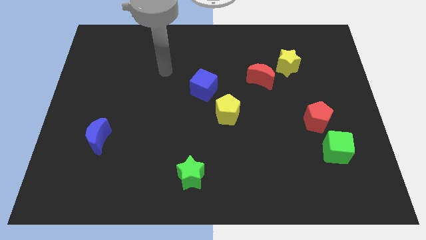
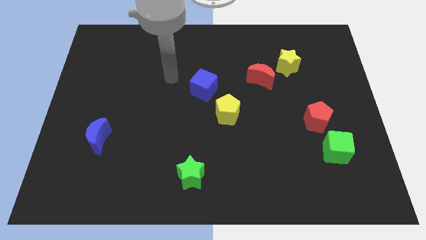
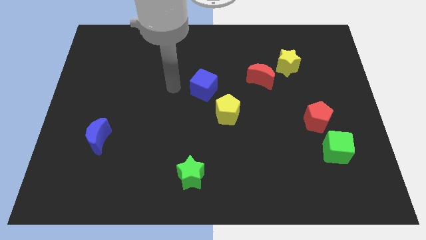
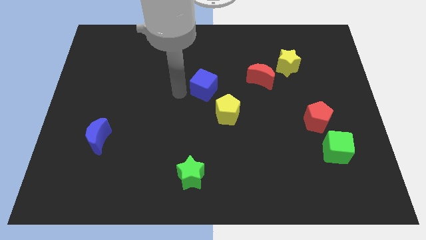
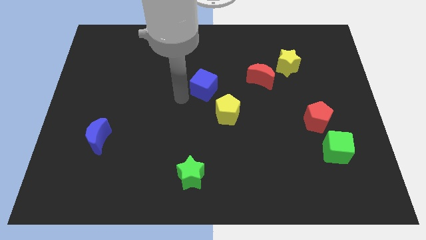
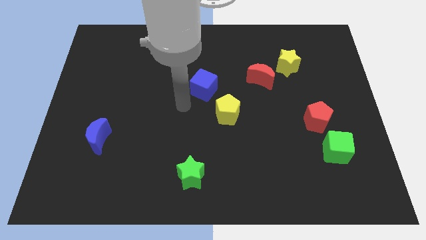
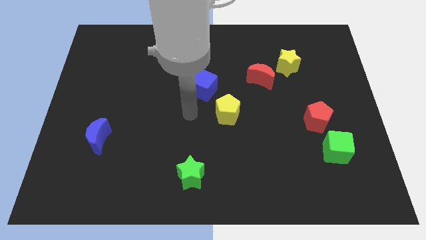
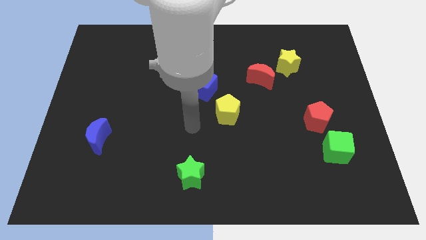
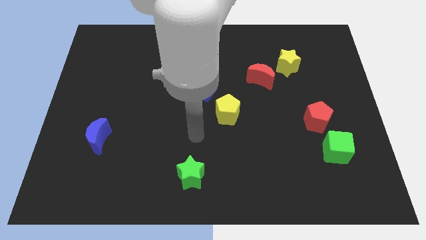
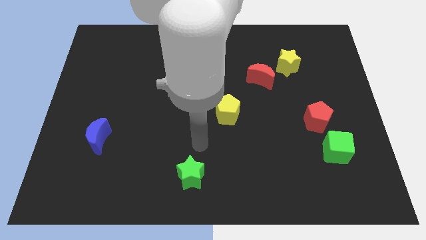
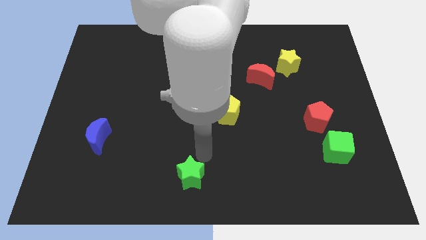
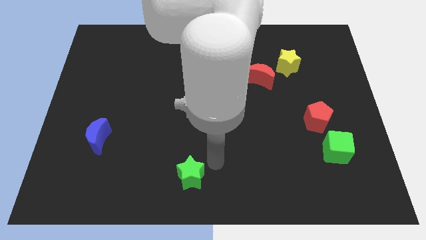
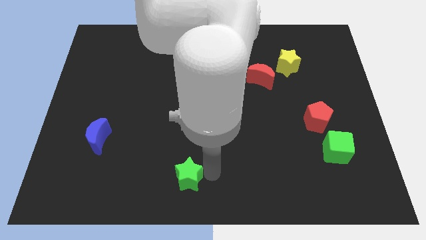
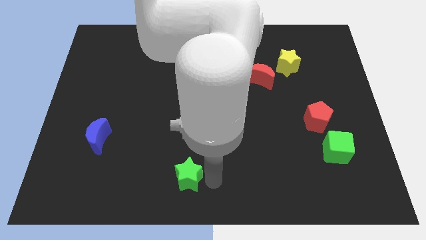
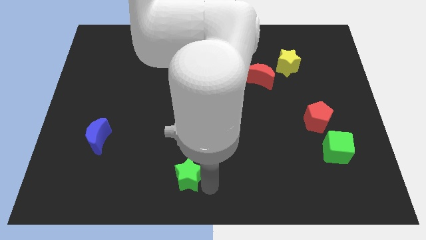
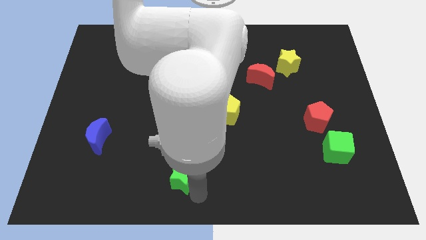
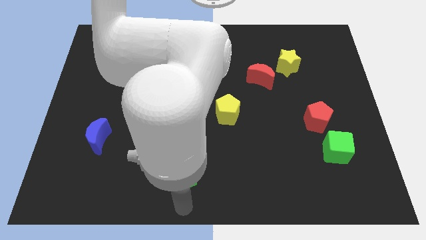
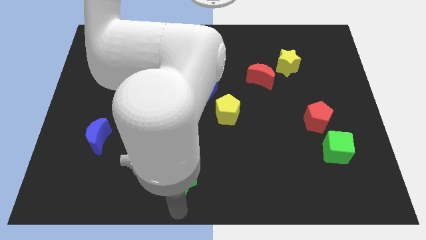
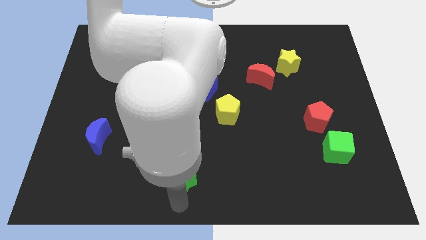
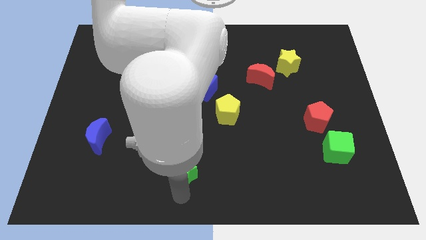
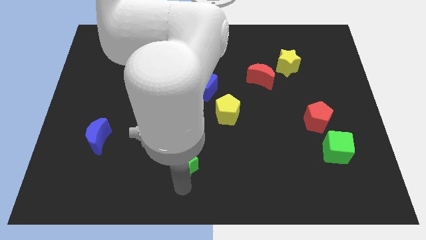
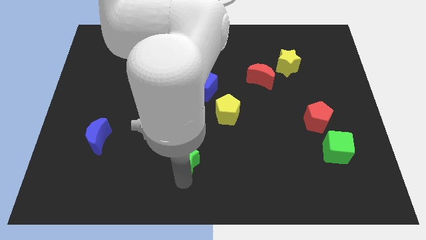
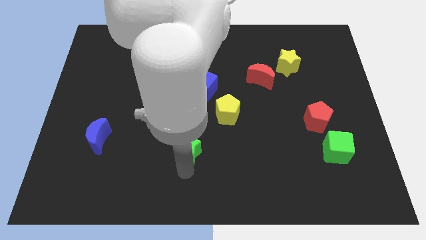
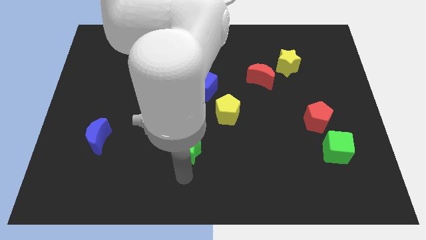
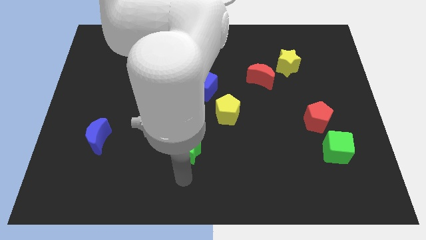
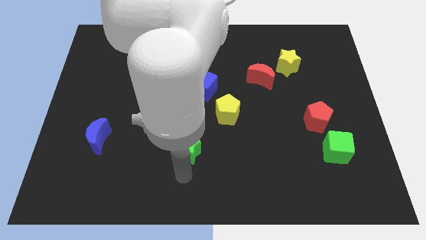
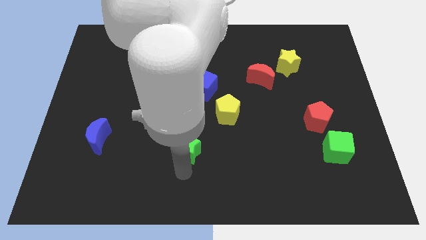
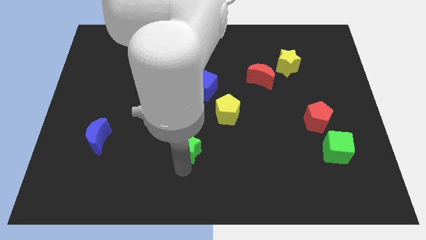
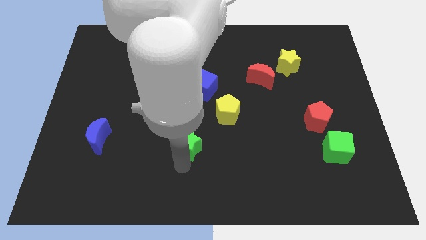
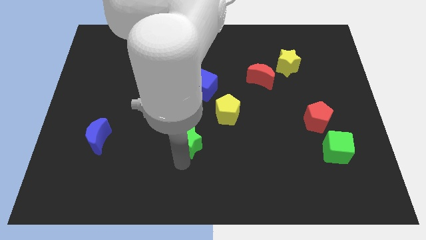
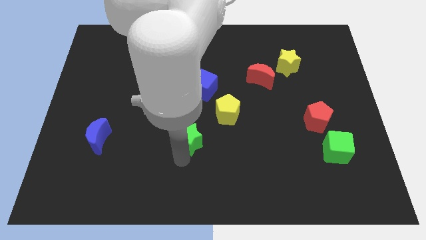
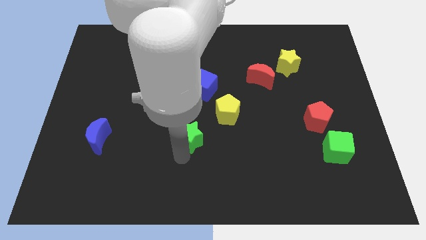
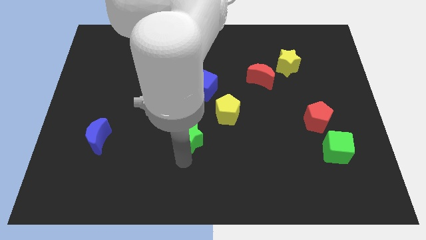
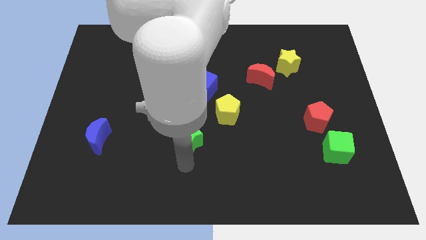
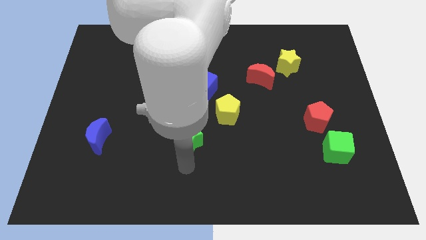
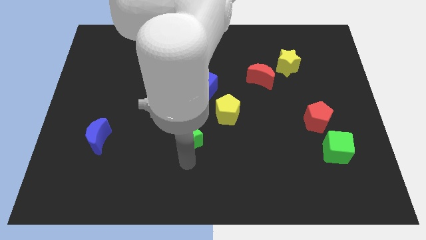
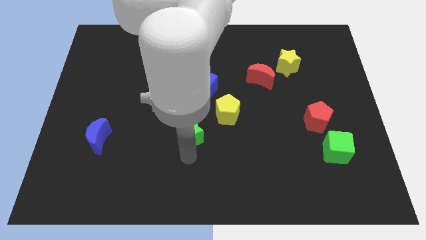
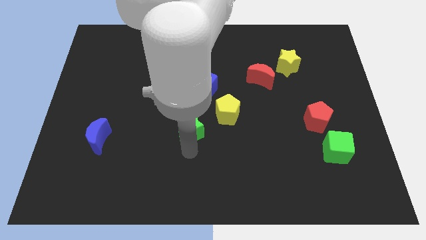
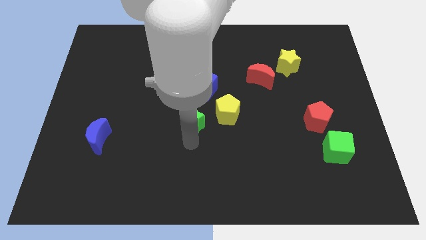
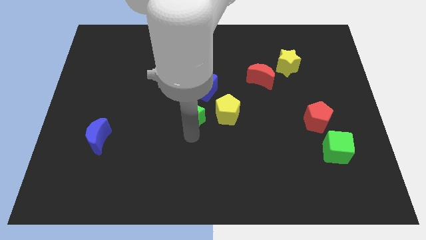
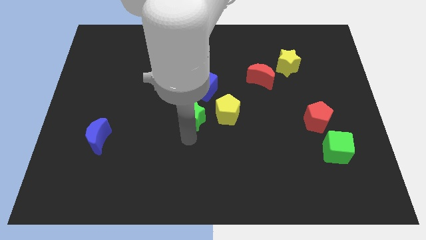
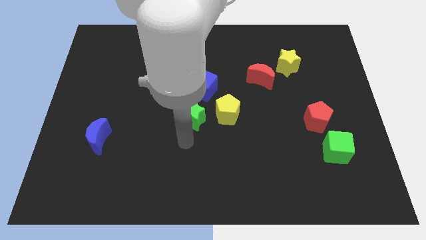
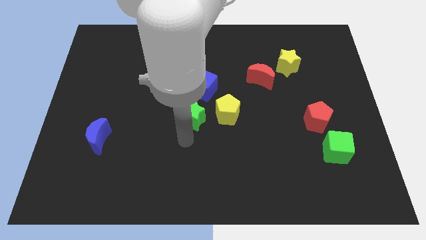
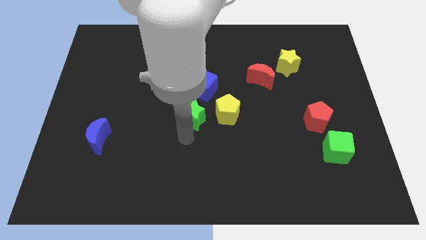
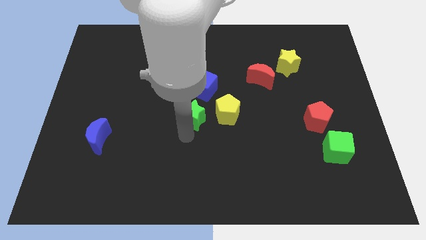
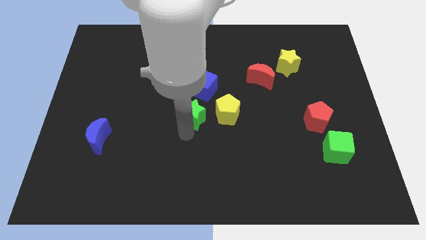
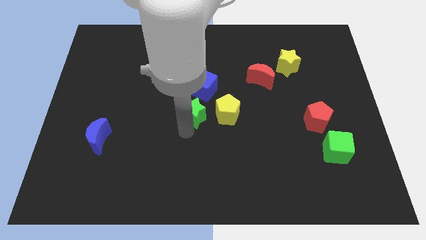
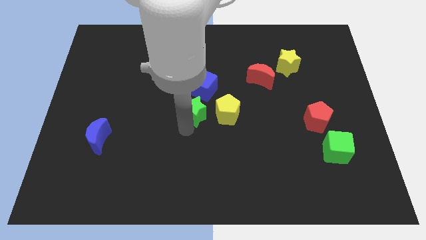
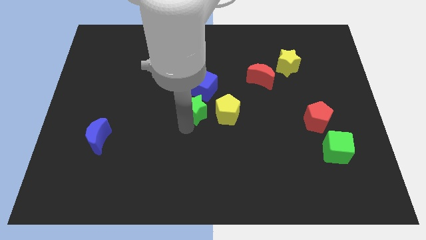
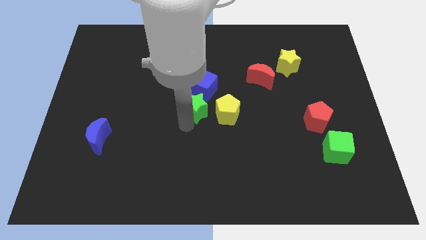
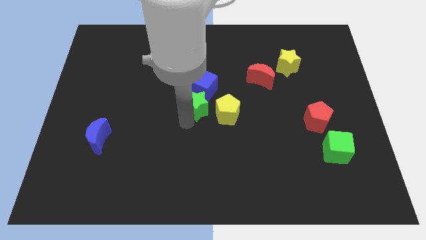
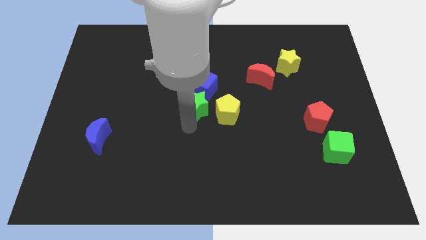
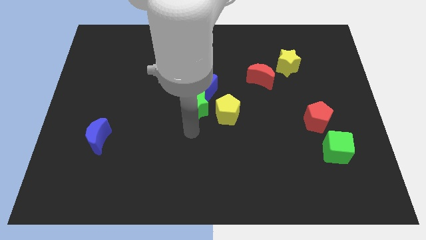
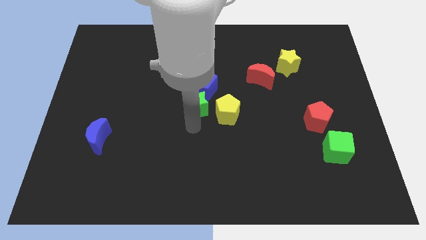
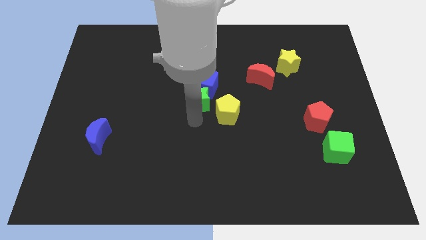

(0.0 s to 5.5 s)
push the green star to the blue cube

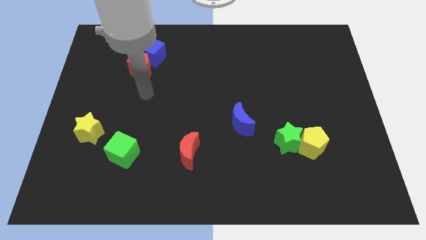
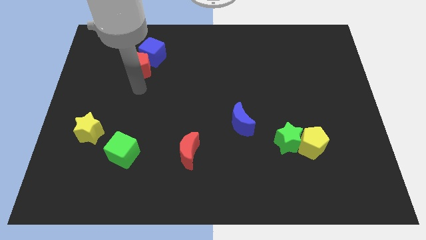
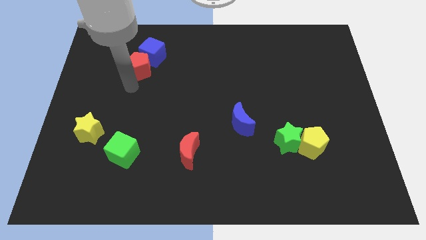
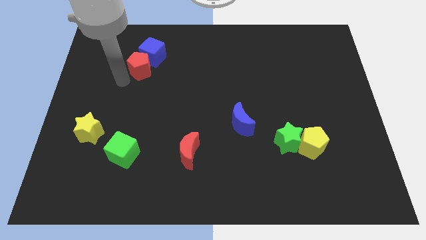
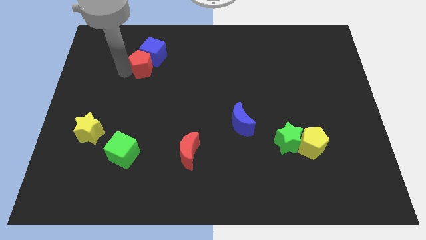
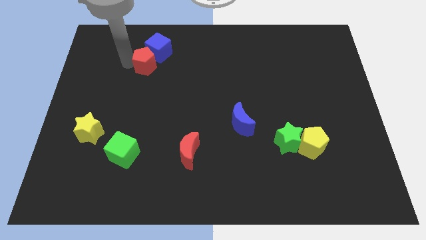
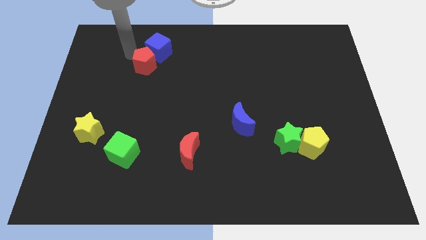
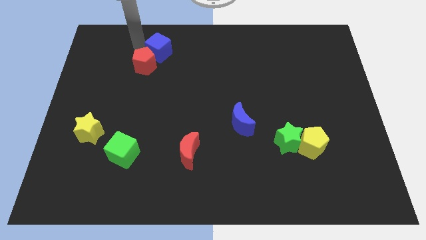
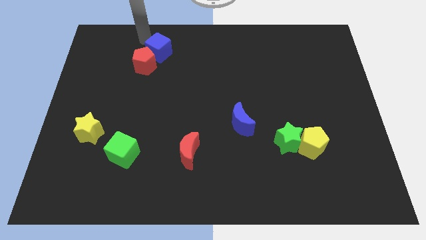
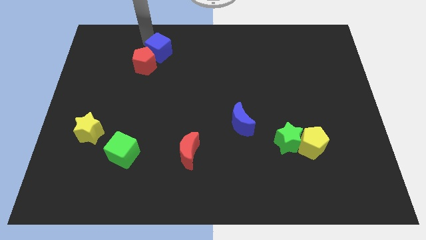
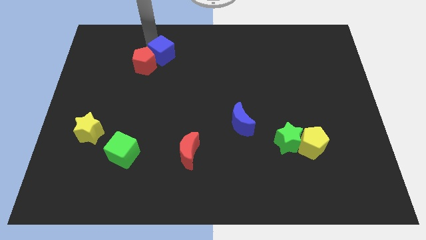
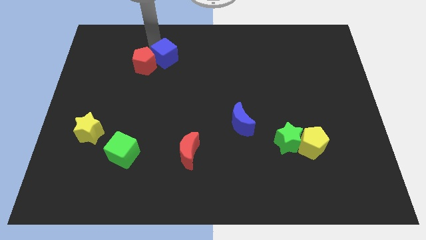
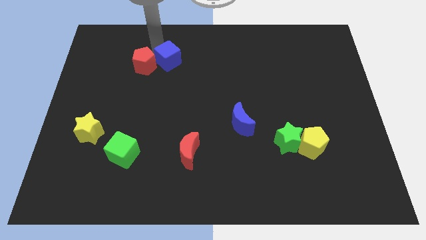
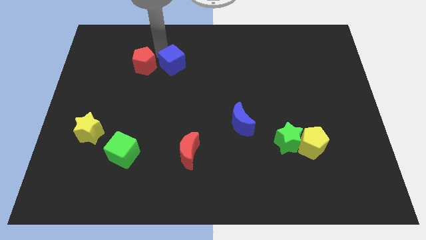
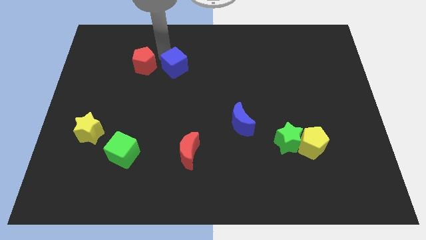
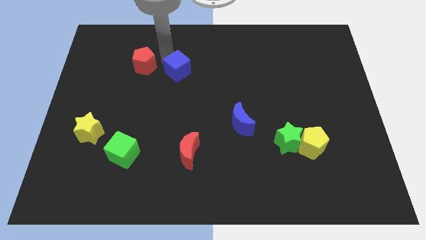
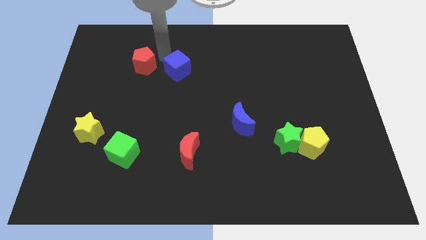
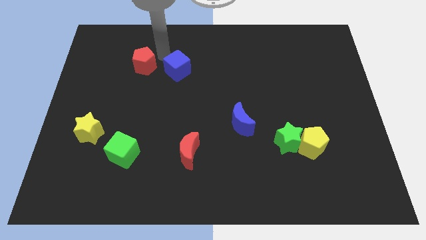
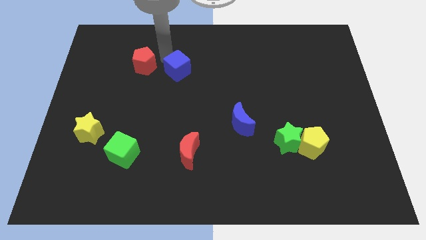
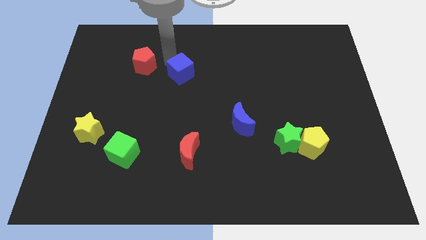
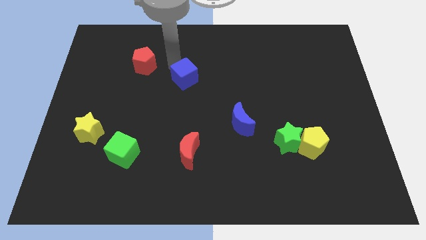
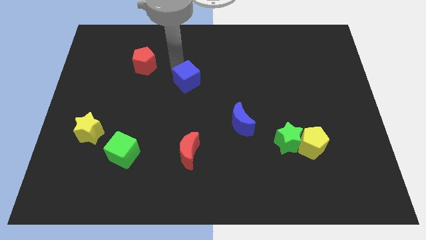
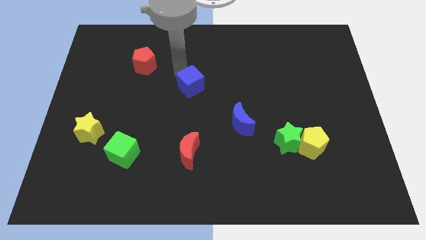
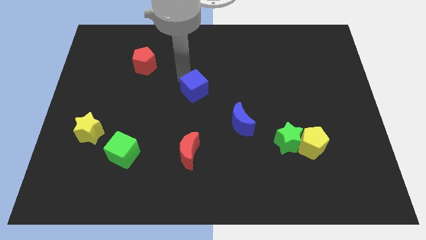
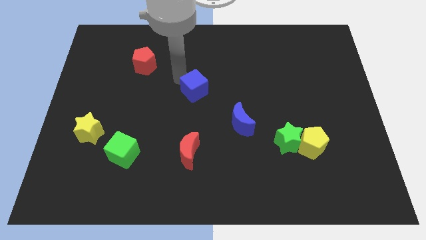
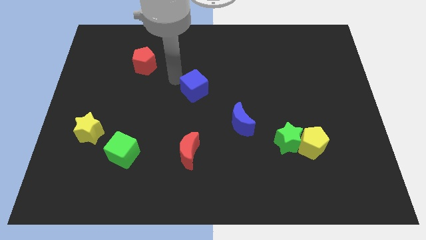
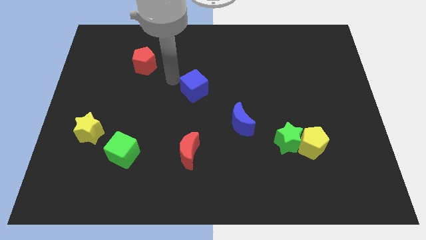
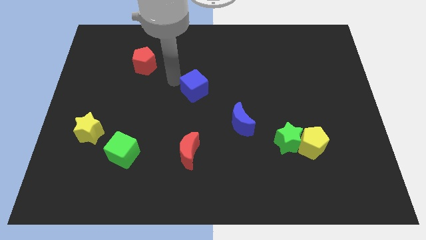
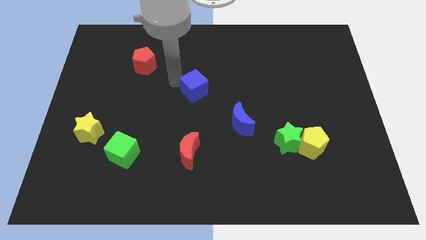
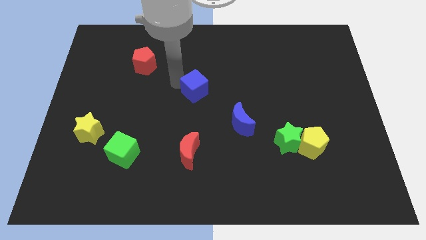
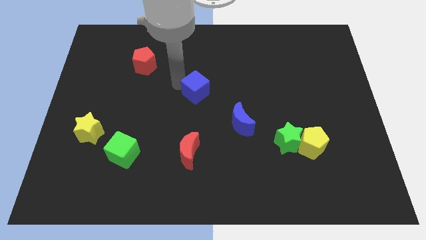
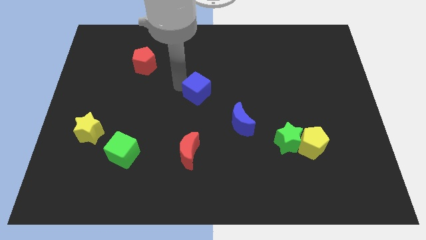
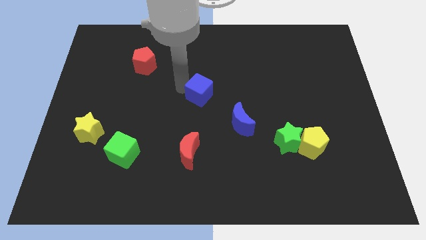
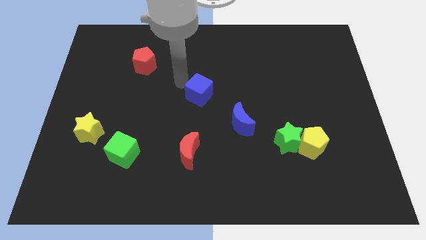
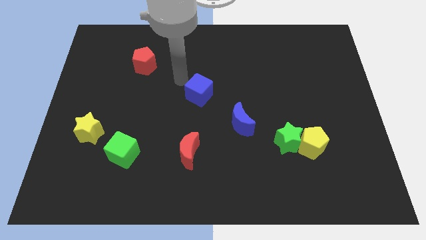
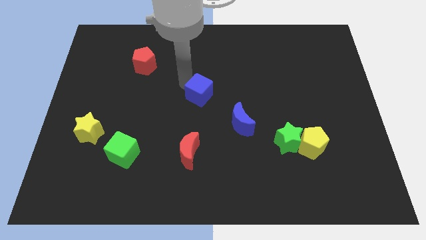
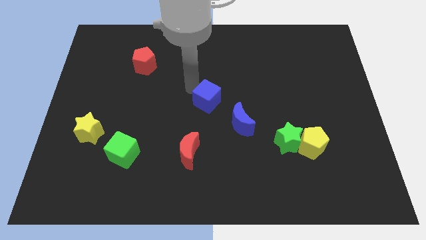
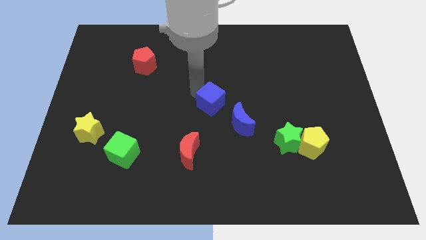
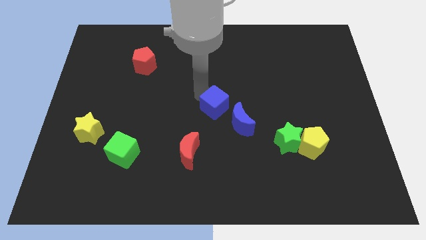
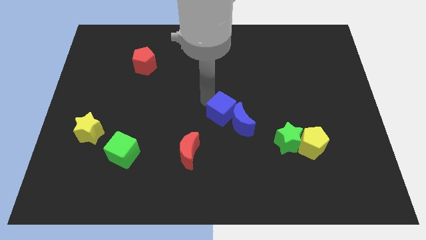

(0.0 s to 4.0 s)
move the blue cube next to the blue moon
